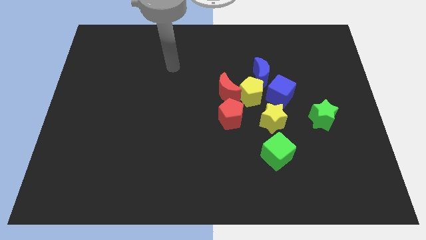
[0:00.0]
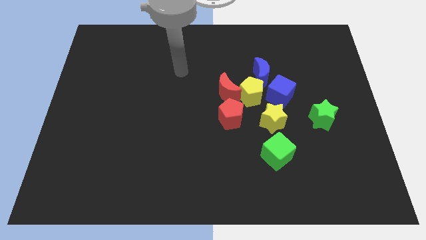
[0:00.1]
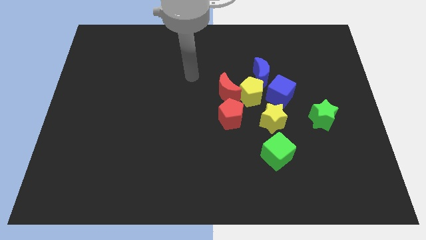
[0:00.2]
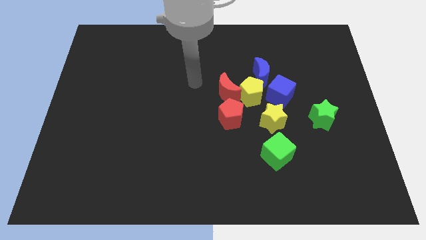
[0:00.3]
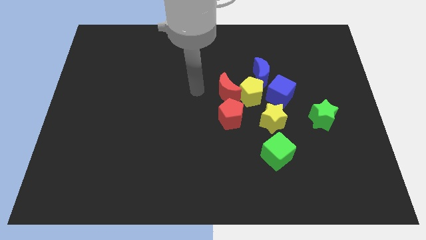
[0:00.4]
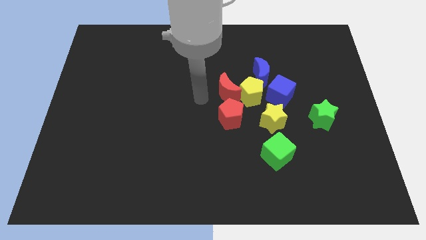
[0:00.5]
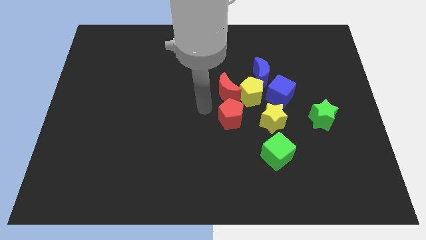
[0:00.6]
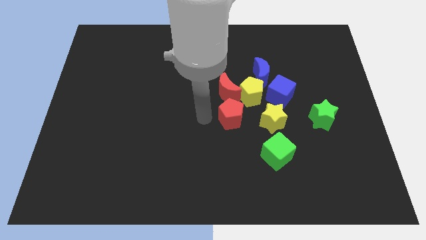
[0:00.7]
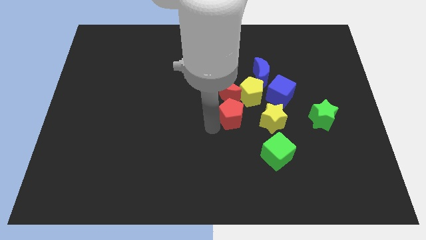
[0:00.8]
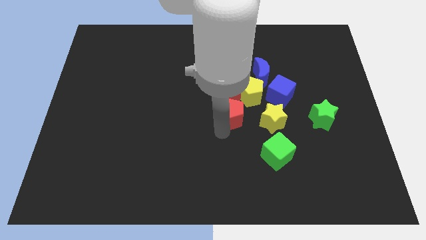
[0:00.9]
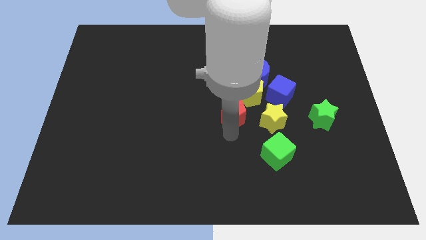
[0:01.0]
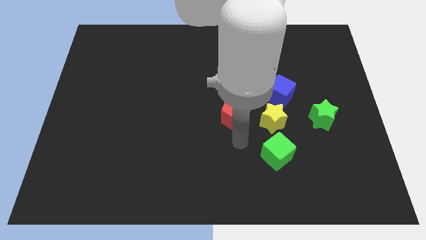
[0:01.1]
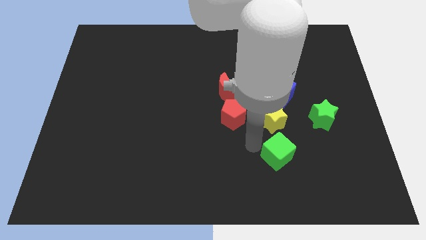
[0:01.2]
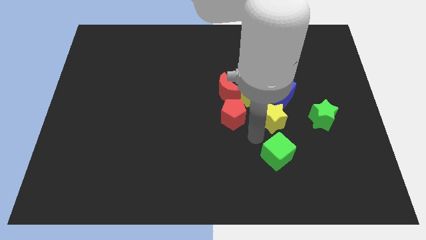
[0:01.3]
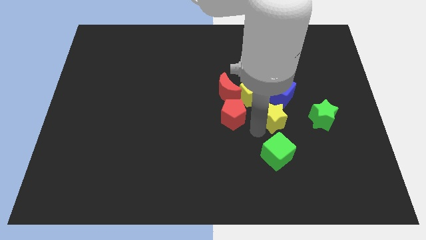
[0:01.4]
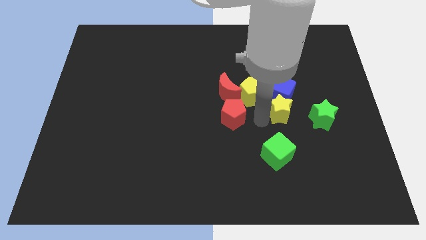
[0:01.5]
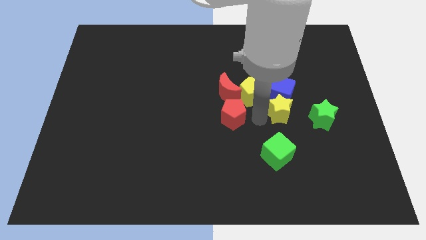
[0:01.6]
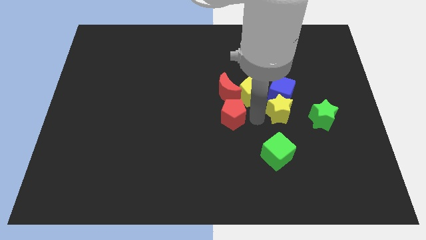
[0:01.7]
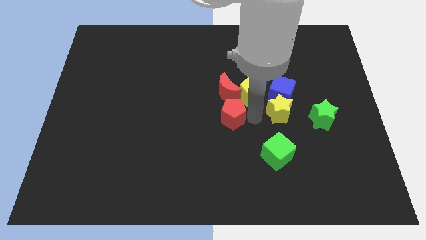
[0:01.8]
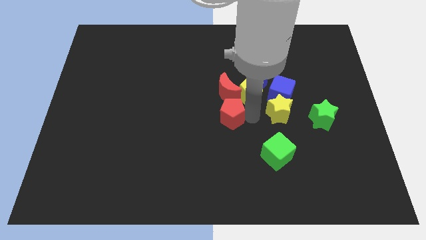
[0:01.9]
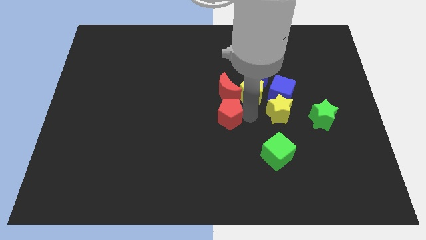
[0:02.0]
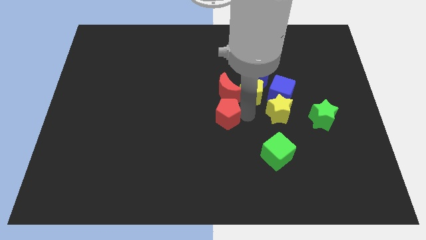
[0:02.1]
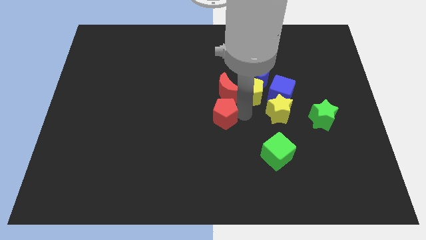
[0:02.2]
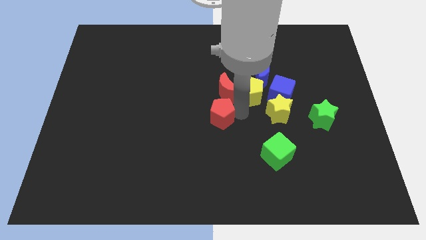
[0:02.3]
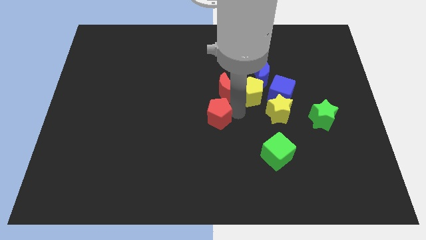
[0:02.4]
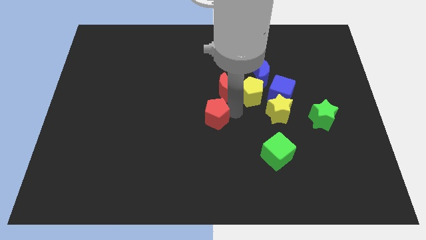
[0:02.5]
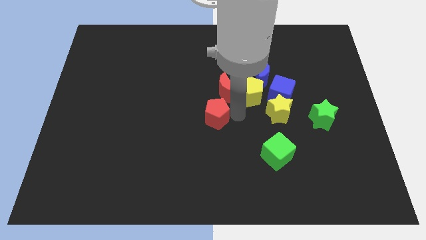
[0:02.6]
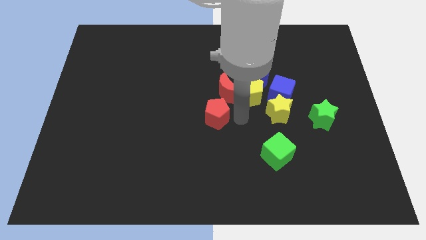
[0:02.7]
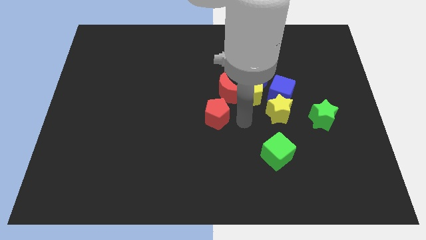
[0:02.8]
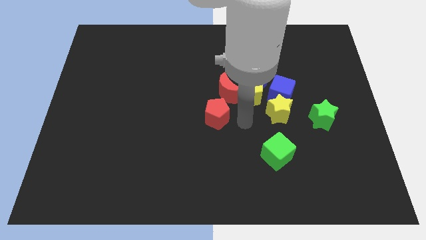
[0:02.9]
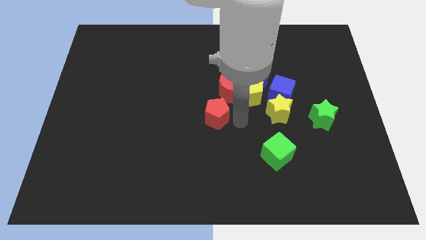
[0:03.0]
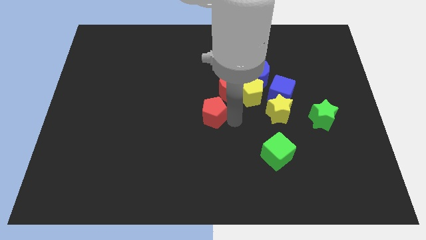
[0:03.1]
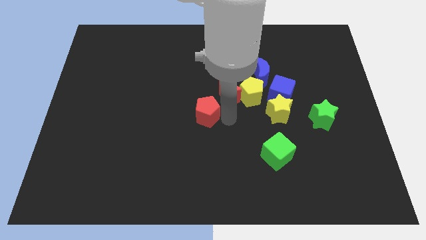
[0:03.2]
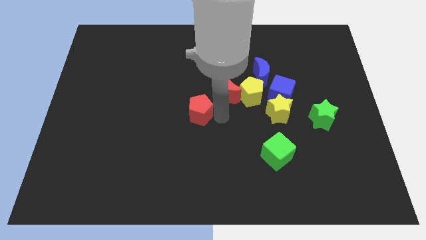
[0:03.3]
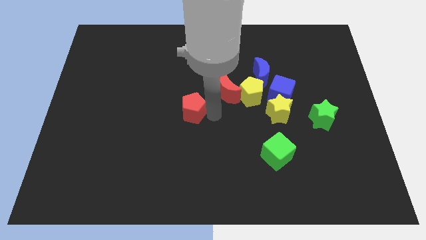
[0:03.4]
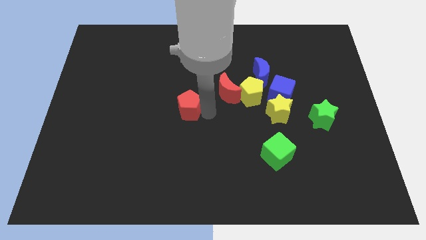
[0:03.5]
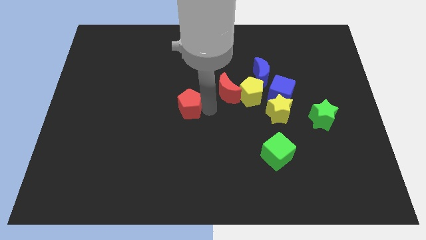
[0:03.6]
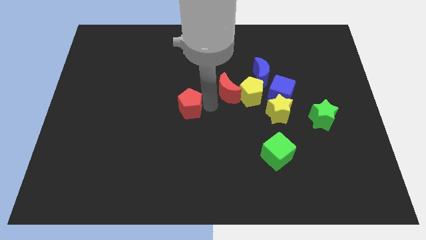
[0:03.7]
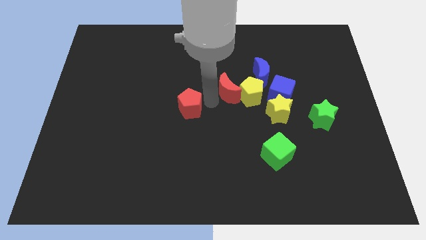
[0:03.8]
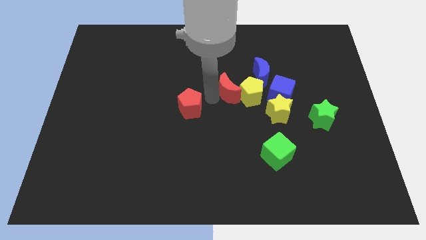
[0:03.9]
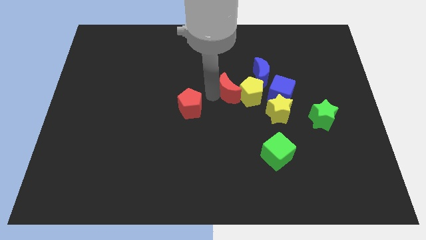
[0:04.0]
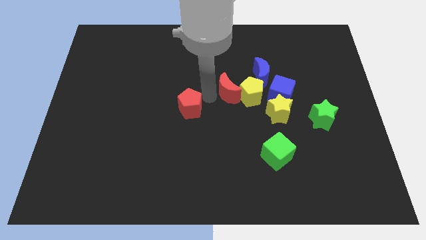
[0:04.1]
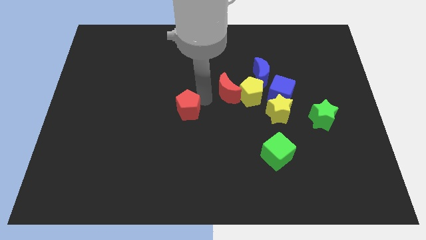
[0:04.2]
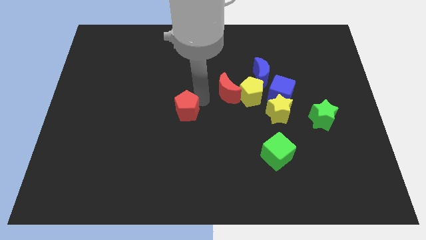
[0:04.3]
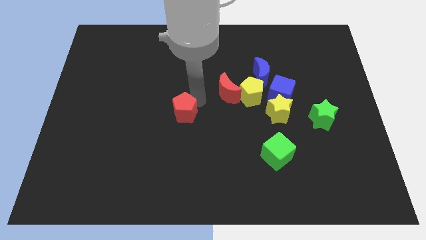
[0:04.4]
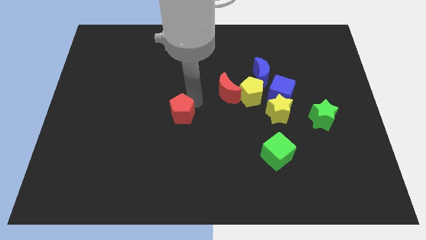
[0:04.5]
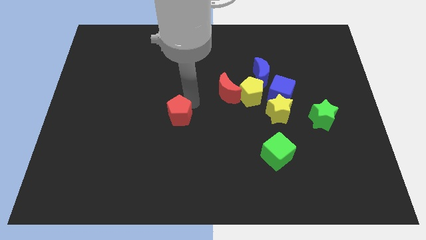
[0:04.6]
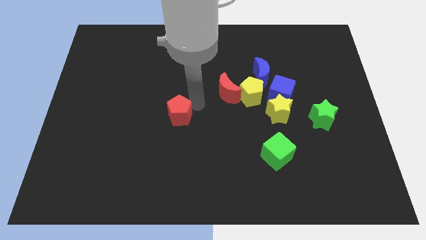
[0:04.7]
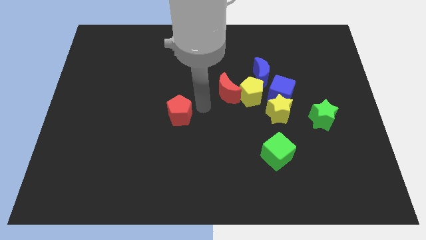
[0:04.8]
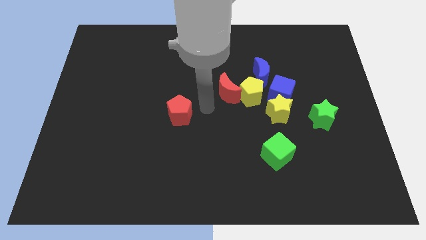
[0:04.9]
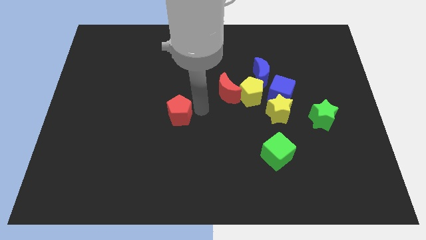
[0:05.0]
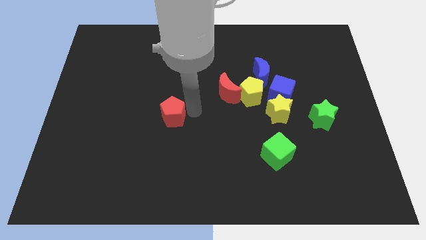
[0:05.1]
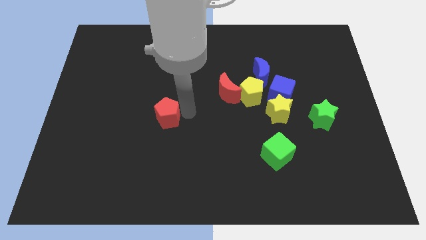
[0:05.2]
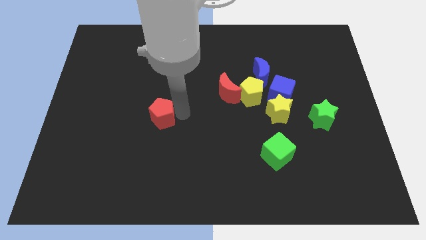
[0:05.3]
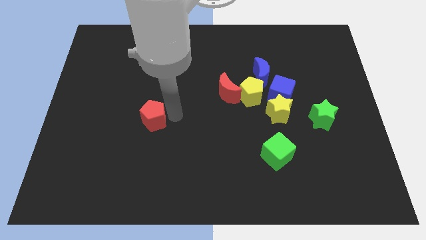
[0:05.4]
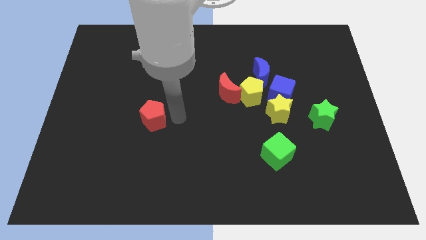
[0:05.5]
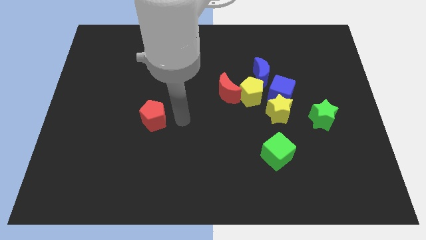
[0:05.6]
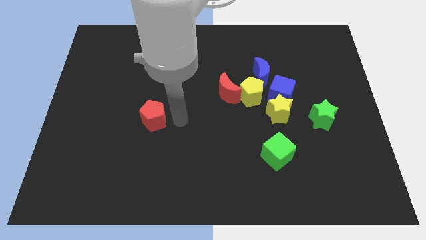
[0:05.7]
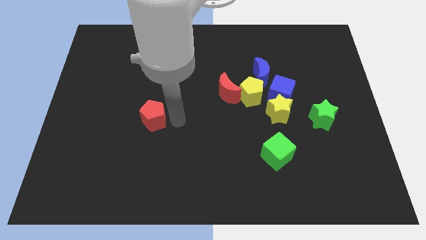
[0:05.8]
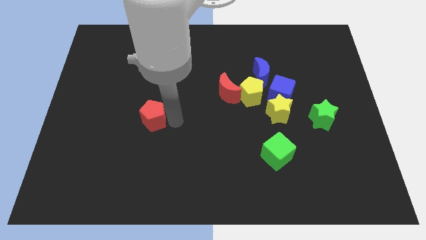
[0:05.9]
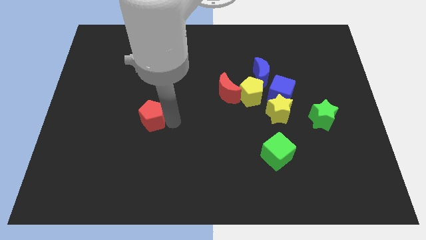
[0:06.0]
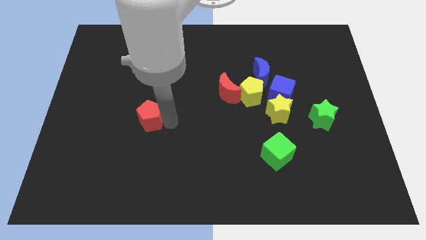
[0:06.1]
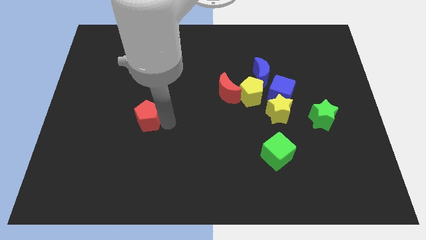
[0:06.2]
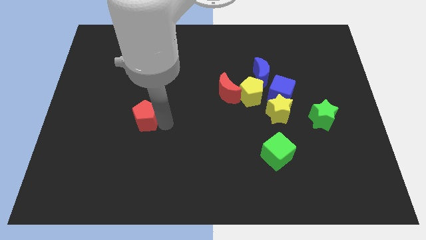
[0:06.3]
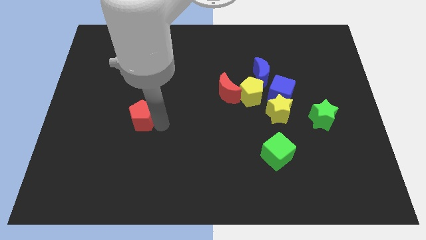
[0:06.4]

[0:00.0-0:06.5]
move the red pentagon left

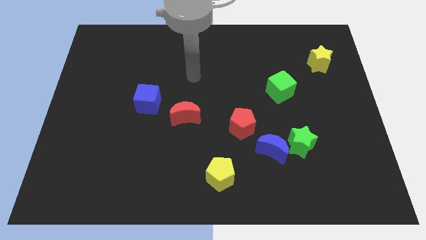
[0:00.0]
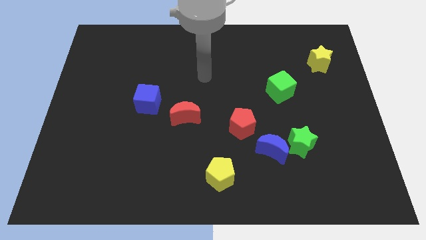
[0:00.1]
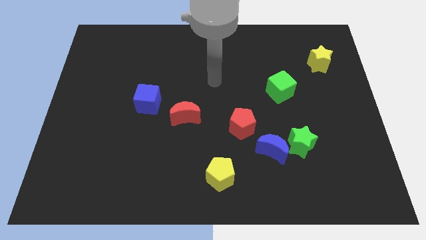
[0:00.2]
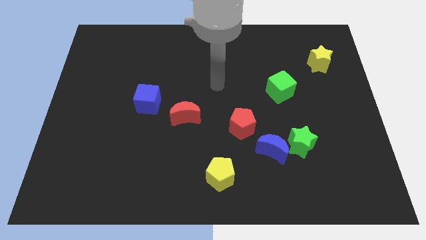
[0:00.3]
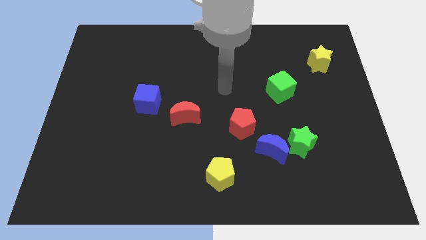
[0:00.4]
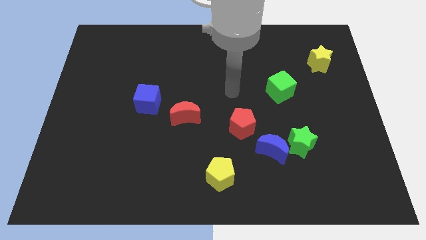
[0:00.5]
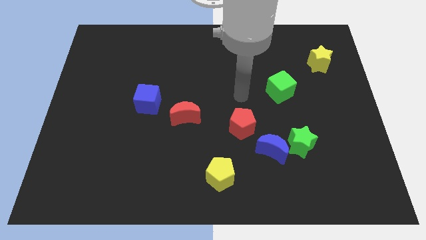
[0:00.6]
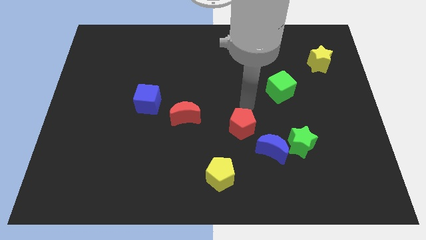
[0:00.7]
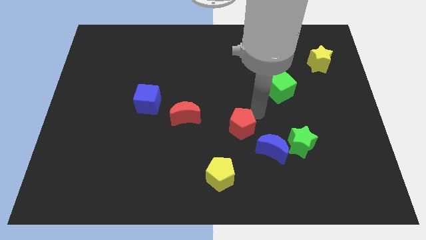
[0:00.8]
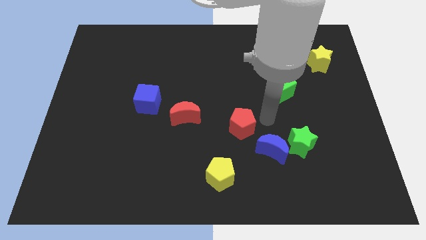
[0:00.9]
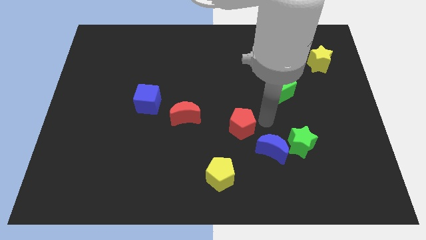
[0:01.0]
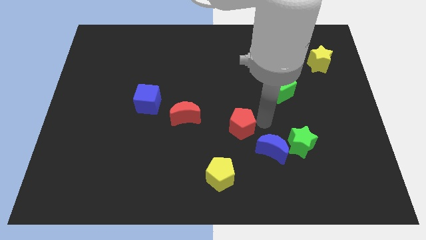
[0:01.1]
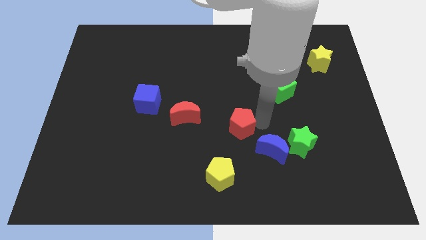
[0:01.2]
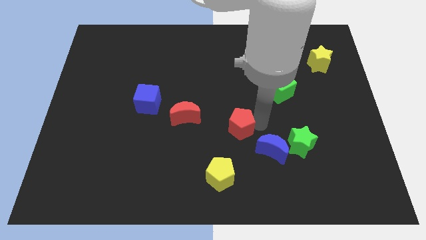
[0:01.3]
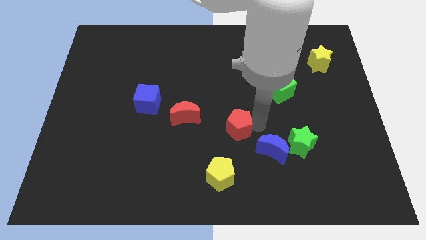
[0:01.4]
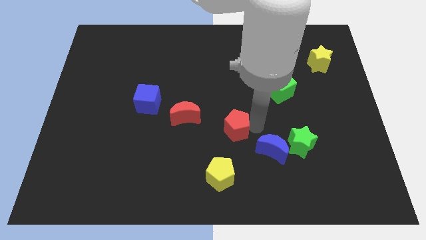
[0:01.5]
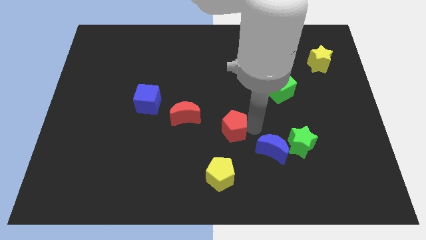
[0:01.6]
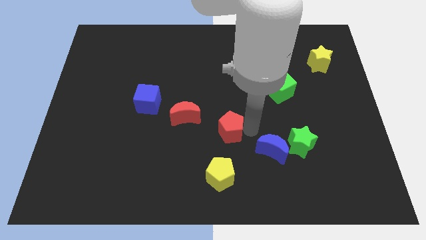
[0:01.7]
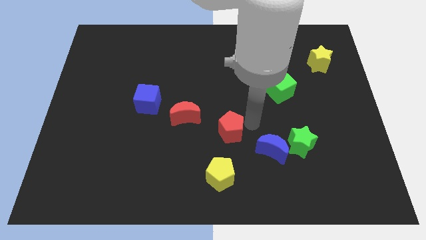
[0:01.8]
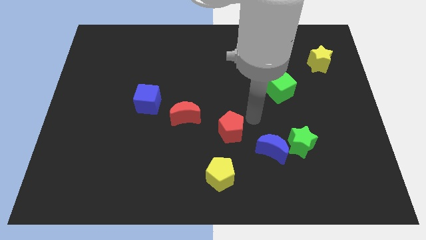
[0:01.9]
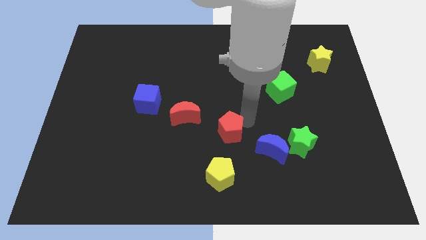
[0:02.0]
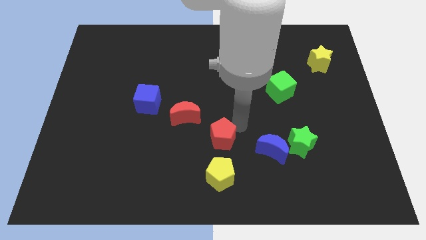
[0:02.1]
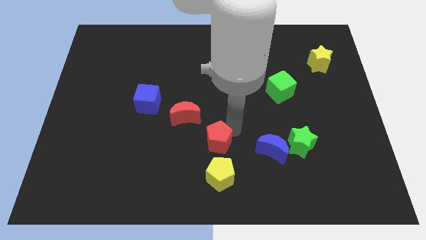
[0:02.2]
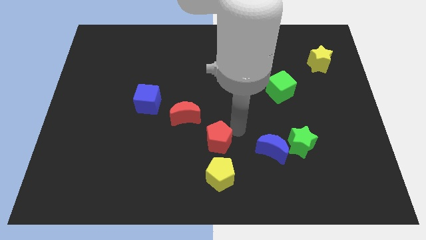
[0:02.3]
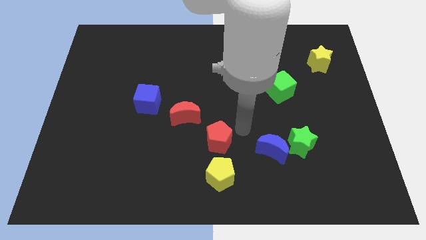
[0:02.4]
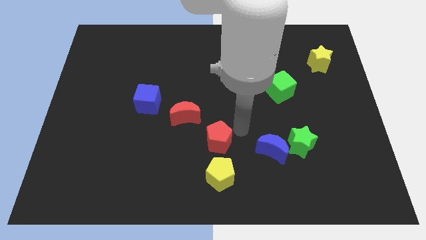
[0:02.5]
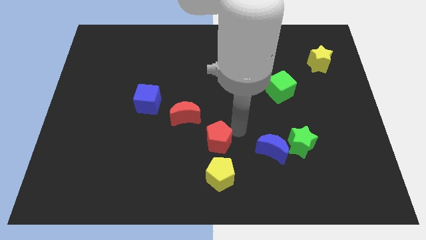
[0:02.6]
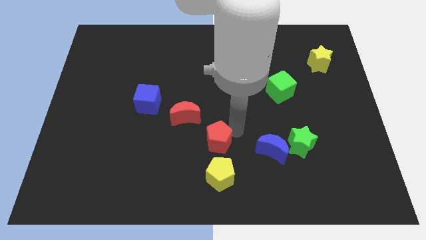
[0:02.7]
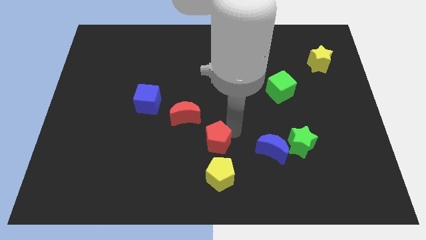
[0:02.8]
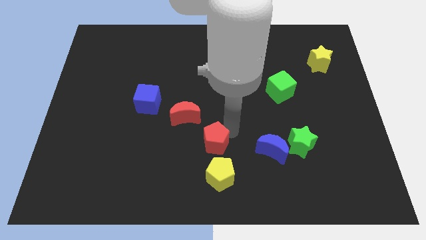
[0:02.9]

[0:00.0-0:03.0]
move the red pentagon downwards and left diagonally a little
